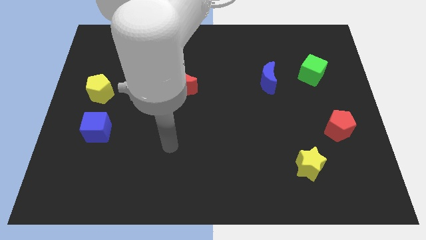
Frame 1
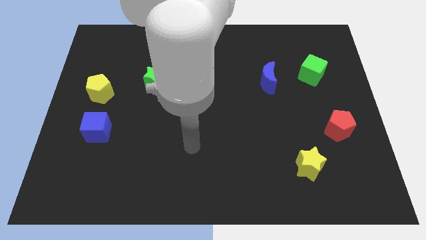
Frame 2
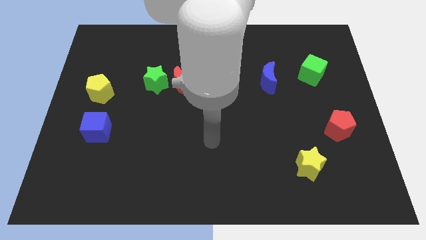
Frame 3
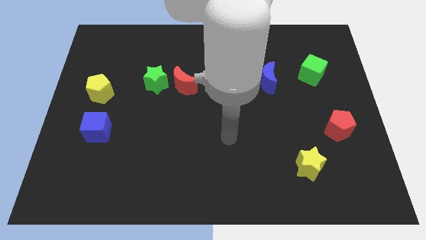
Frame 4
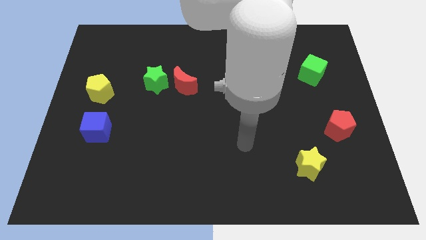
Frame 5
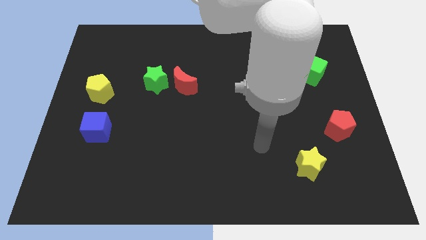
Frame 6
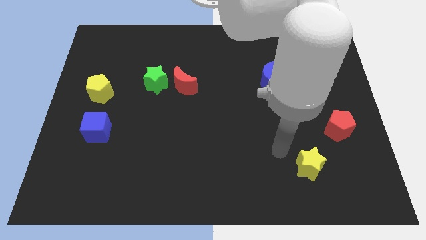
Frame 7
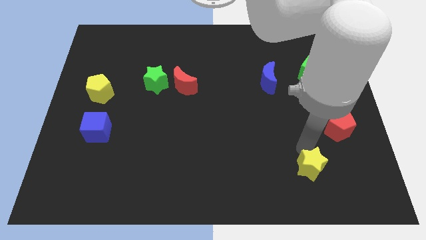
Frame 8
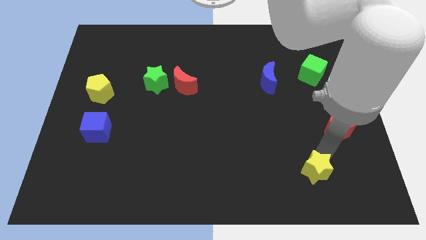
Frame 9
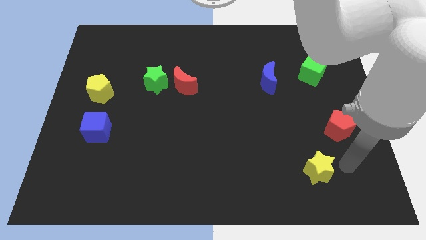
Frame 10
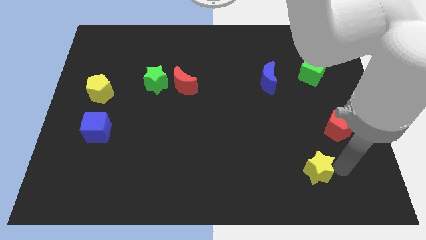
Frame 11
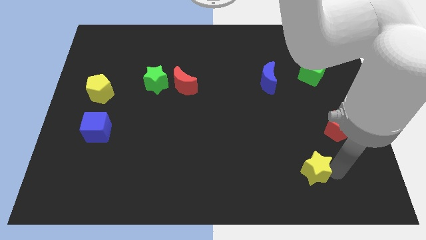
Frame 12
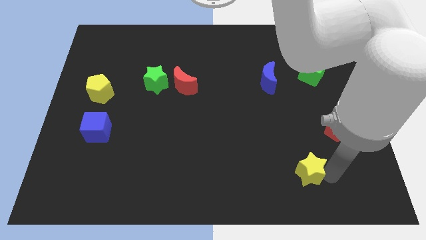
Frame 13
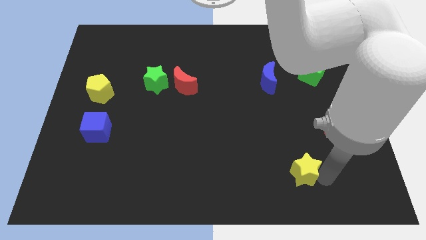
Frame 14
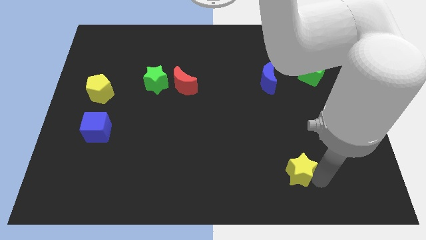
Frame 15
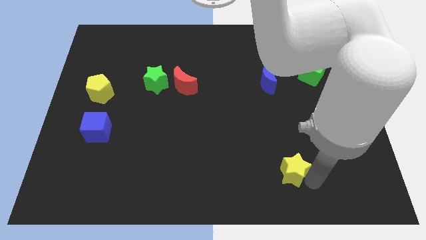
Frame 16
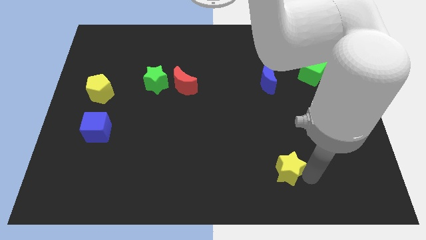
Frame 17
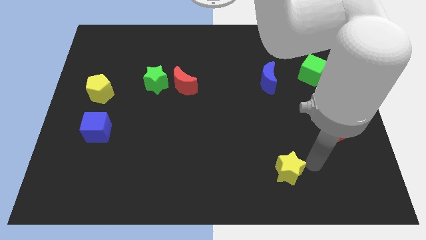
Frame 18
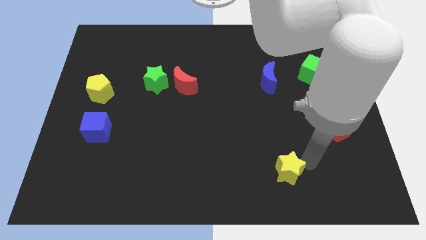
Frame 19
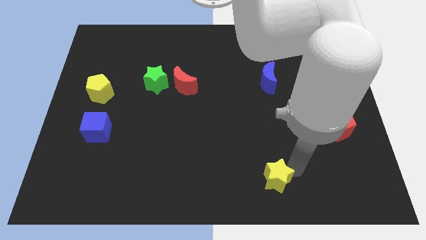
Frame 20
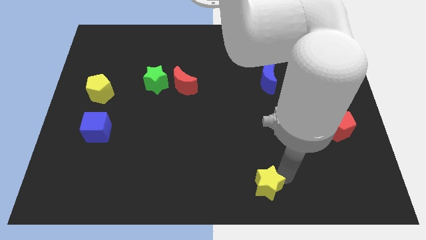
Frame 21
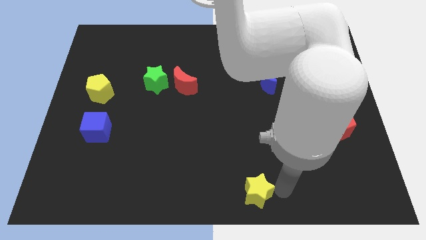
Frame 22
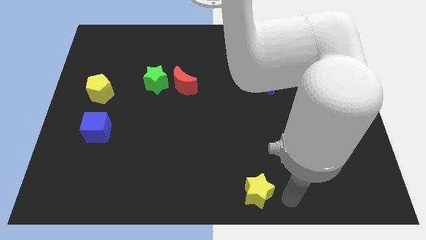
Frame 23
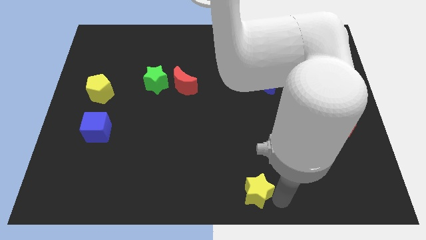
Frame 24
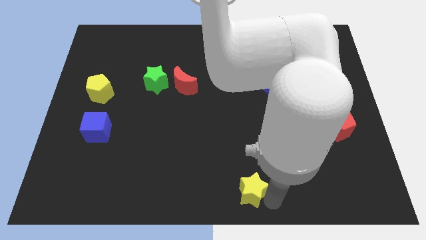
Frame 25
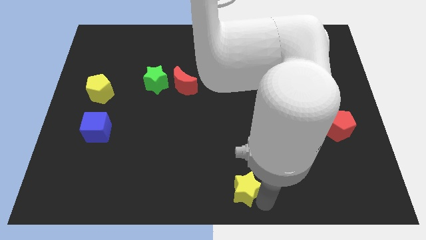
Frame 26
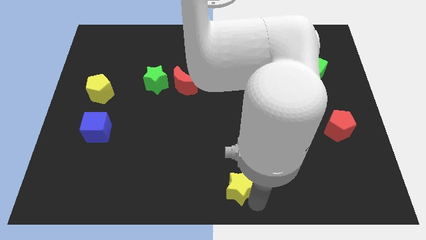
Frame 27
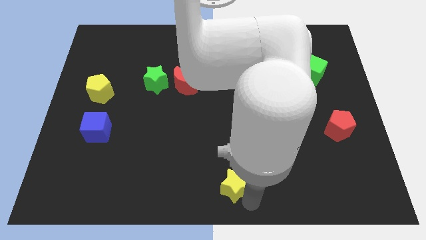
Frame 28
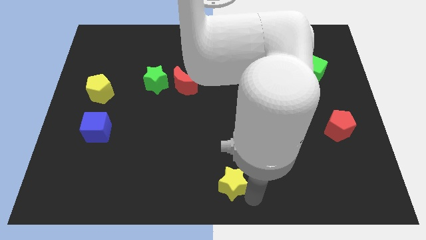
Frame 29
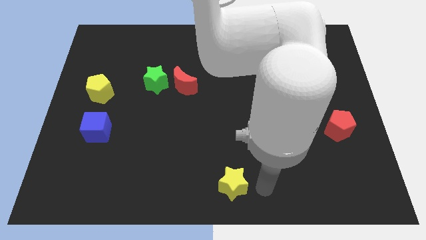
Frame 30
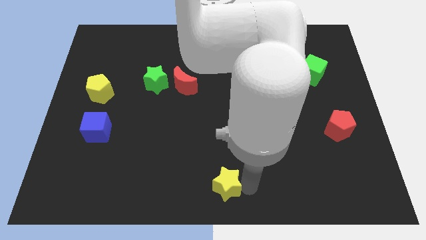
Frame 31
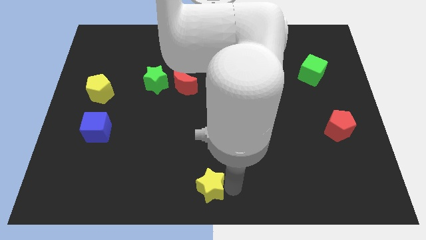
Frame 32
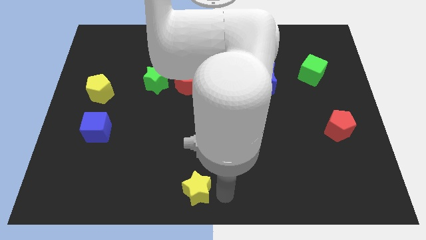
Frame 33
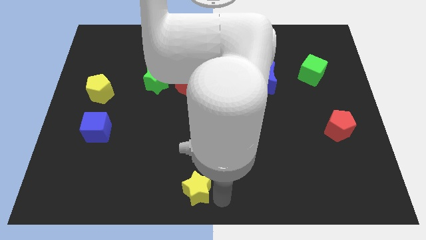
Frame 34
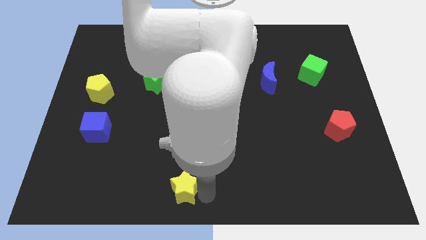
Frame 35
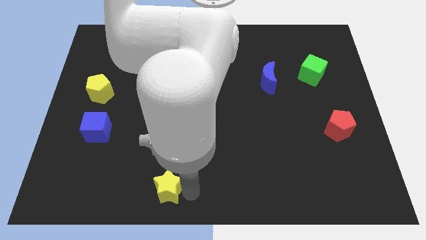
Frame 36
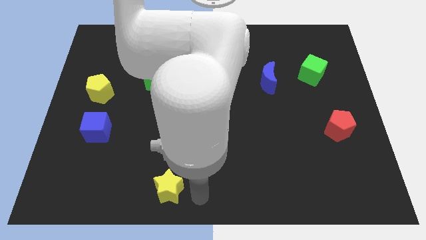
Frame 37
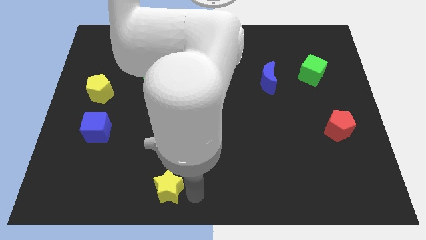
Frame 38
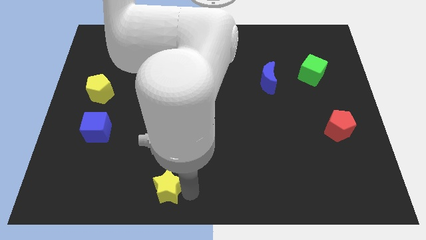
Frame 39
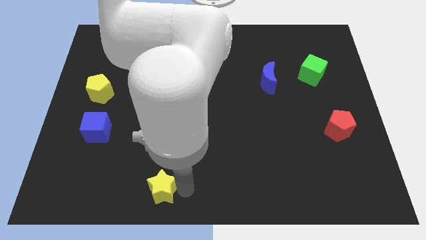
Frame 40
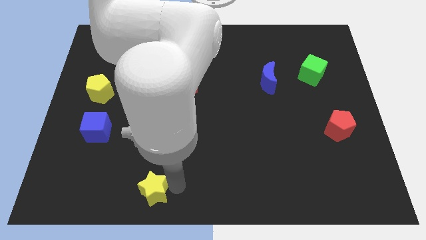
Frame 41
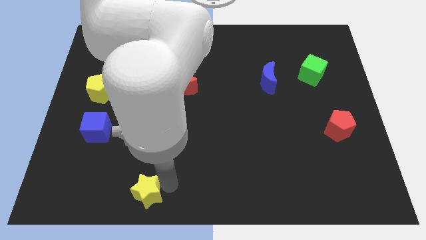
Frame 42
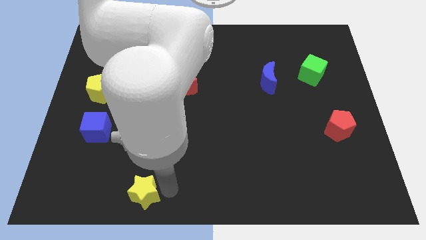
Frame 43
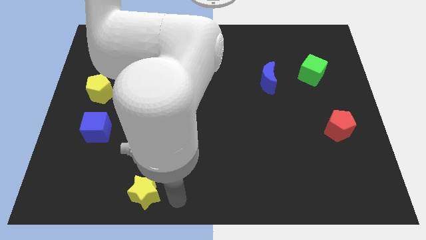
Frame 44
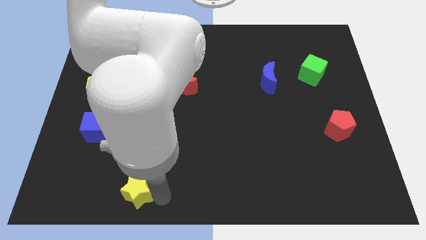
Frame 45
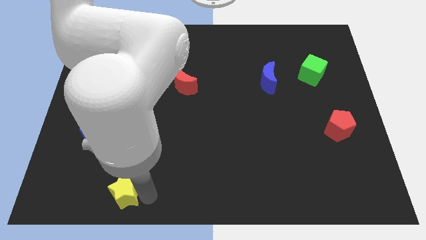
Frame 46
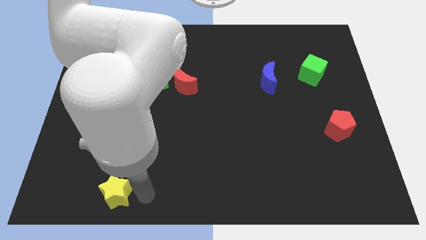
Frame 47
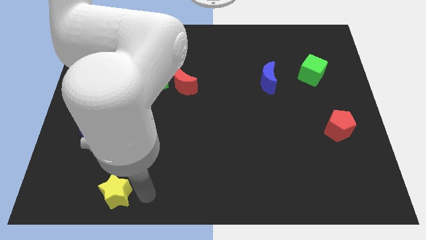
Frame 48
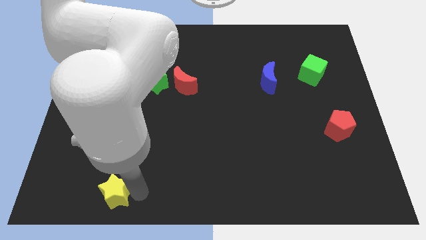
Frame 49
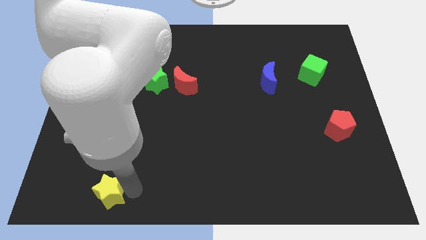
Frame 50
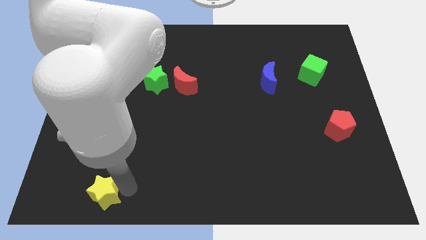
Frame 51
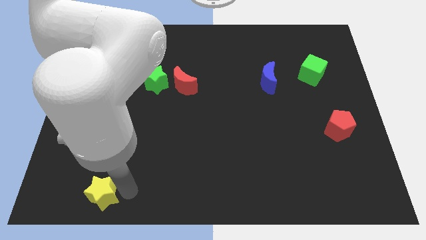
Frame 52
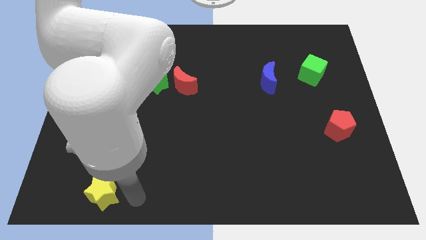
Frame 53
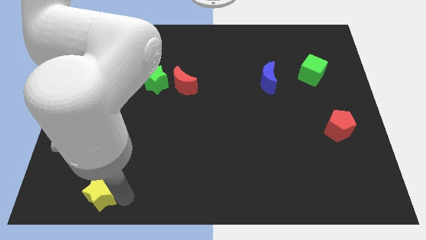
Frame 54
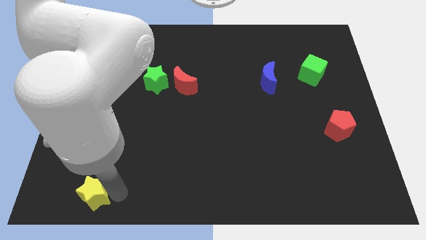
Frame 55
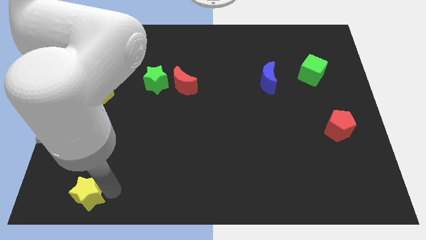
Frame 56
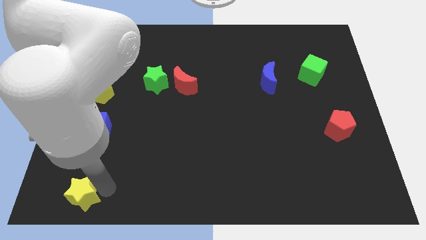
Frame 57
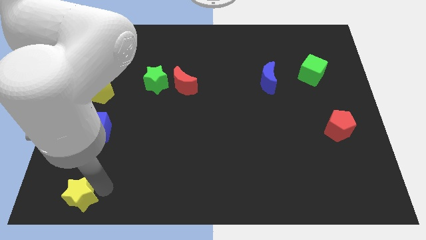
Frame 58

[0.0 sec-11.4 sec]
move the yellow star to the lower left corner
